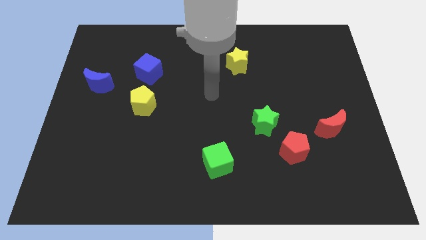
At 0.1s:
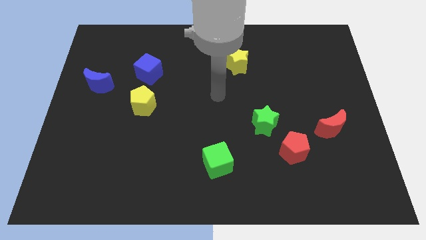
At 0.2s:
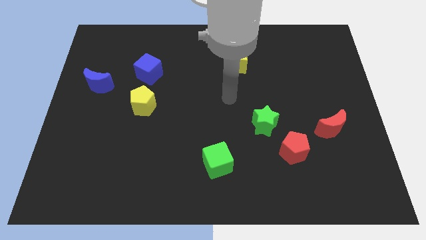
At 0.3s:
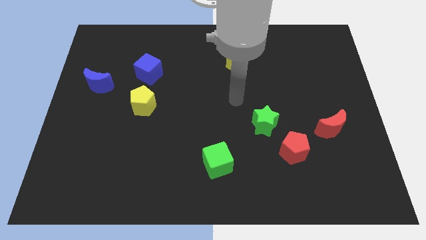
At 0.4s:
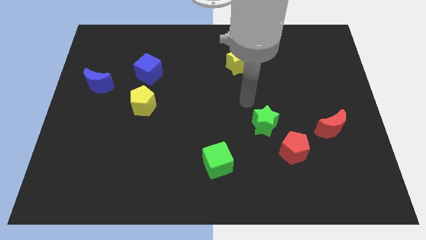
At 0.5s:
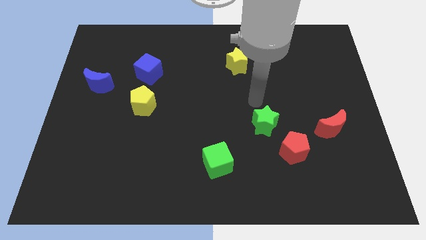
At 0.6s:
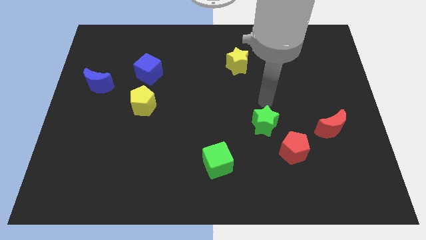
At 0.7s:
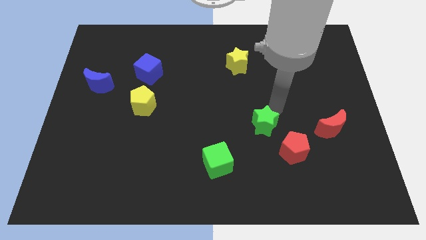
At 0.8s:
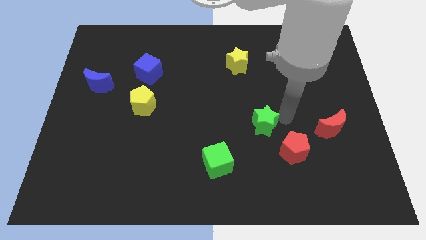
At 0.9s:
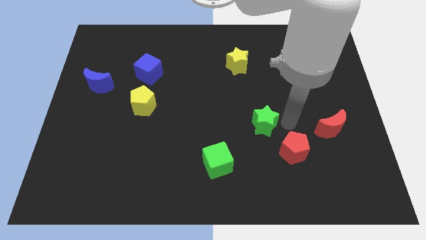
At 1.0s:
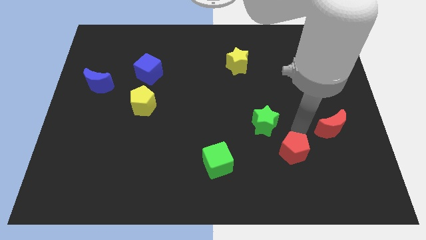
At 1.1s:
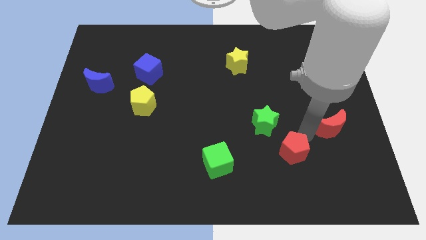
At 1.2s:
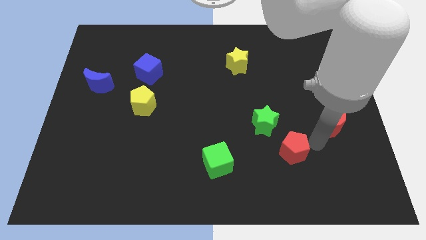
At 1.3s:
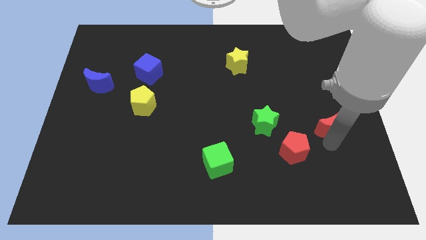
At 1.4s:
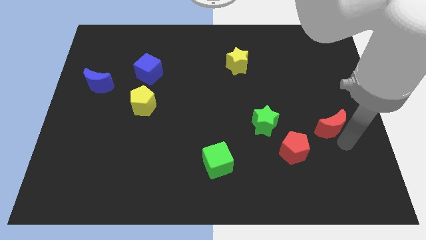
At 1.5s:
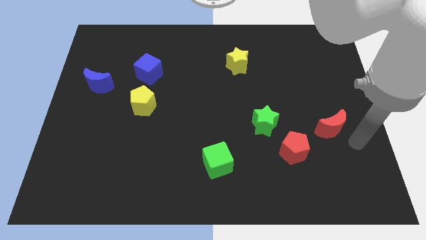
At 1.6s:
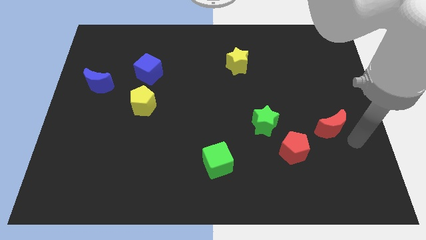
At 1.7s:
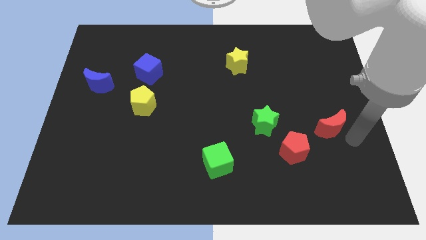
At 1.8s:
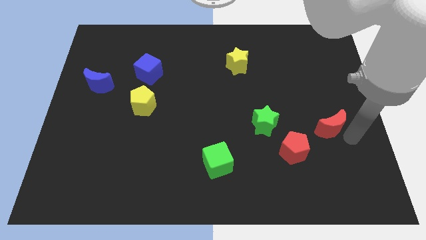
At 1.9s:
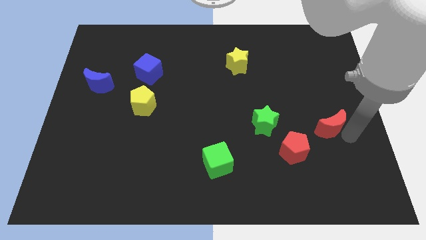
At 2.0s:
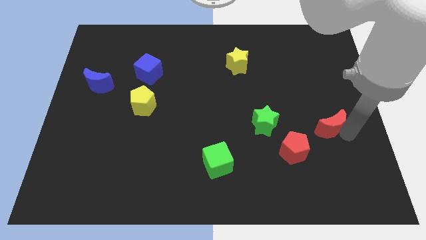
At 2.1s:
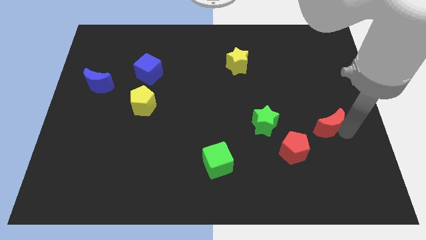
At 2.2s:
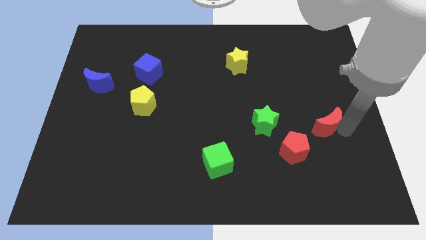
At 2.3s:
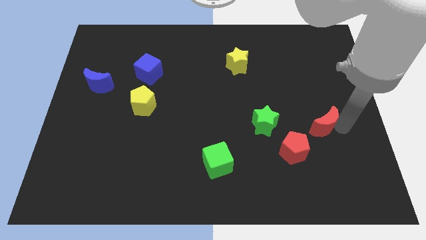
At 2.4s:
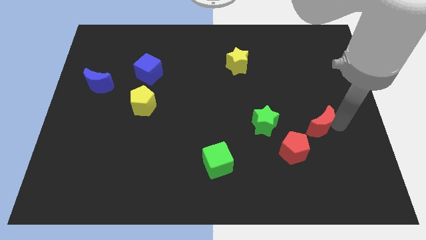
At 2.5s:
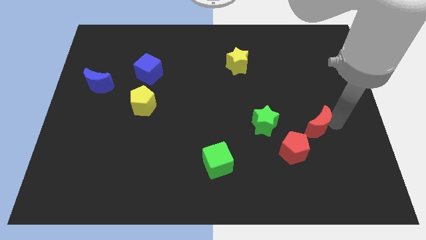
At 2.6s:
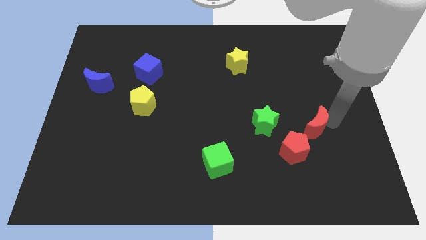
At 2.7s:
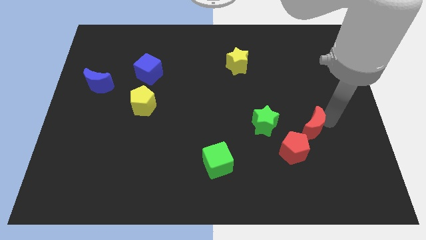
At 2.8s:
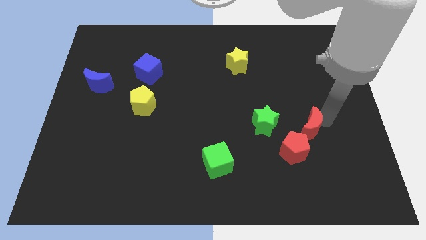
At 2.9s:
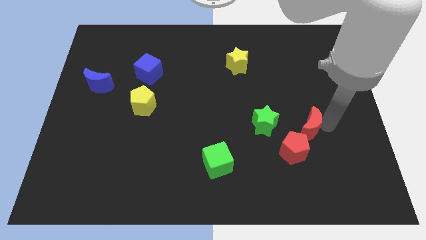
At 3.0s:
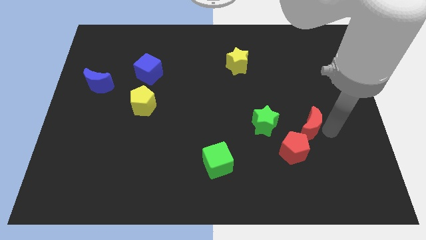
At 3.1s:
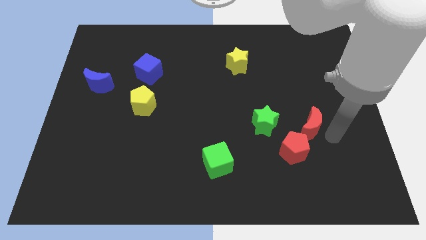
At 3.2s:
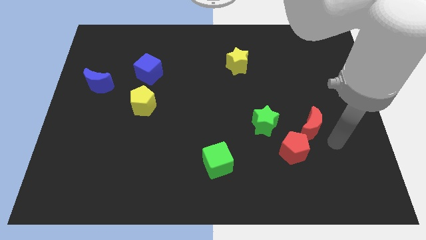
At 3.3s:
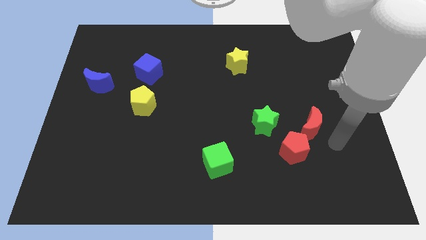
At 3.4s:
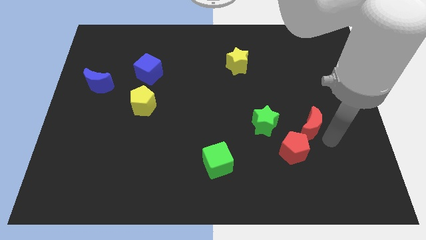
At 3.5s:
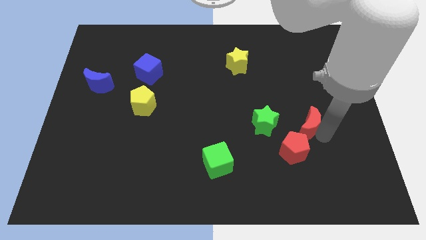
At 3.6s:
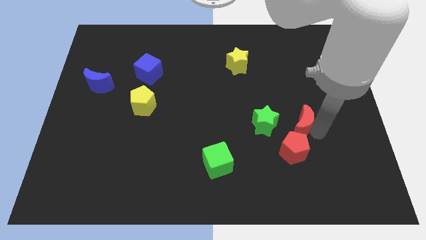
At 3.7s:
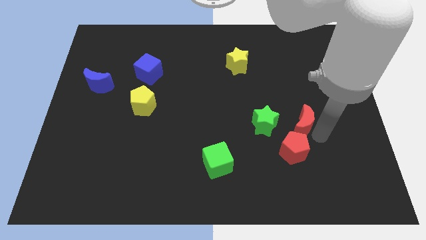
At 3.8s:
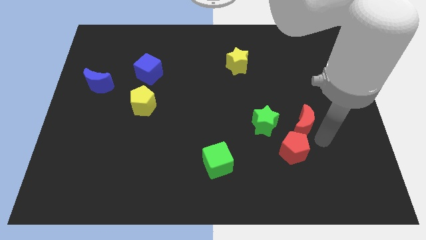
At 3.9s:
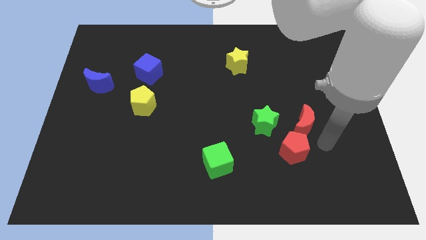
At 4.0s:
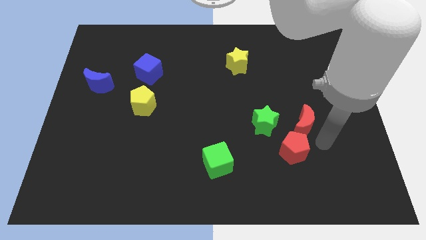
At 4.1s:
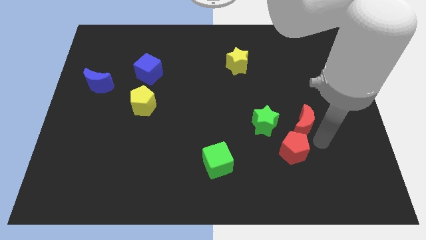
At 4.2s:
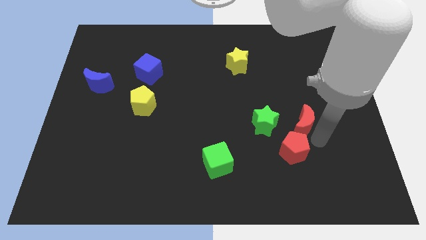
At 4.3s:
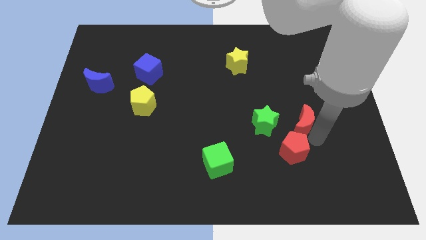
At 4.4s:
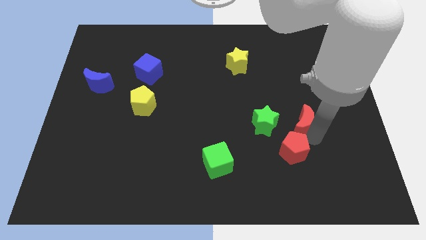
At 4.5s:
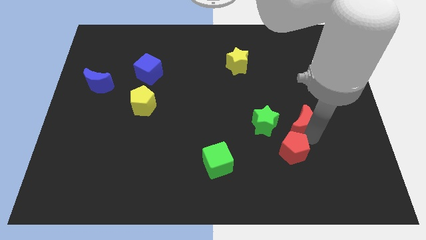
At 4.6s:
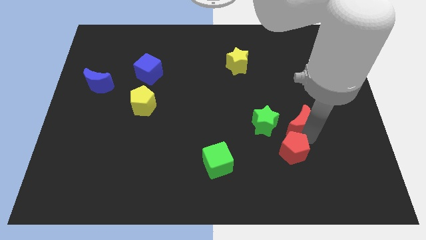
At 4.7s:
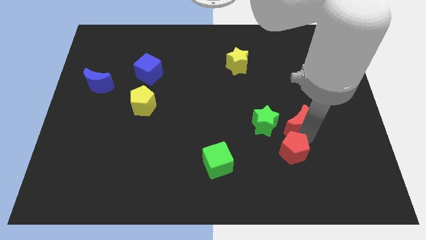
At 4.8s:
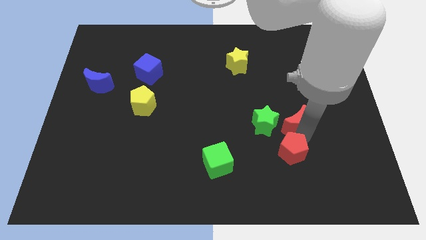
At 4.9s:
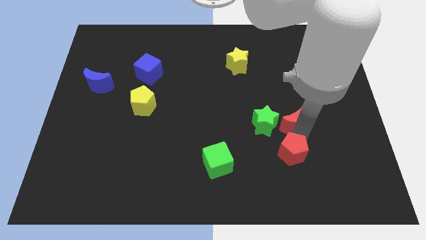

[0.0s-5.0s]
slide the red moon to the top right side of the green star

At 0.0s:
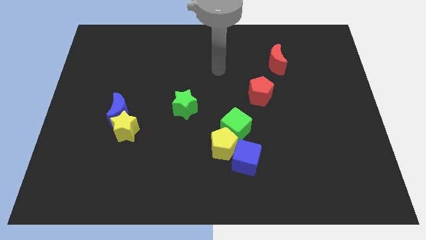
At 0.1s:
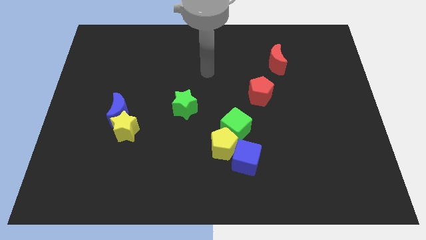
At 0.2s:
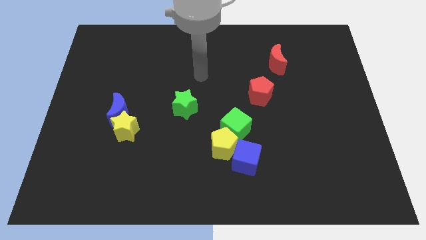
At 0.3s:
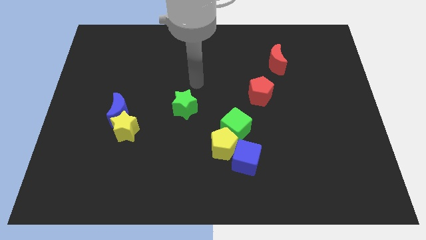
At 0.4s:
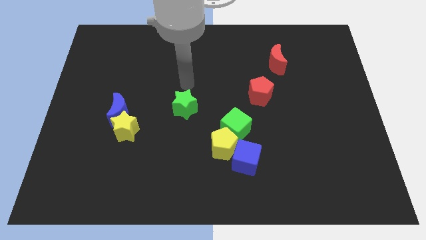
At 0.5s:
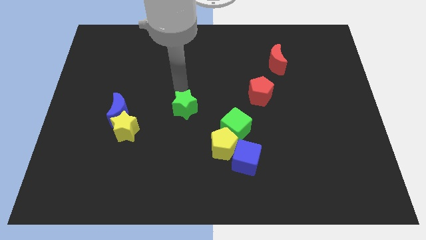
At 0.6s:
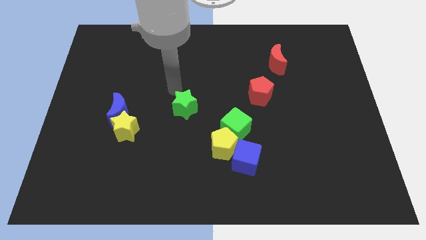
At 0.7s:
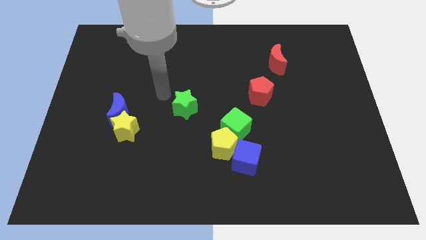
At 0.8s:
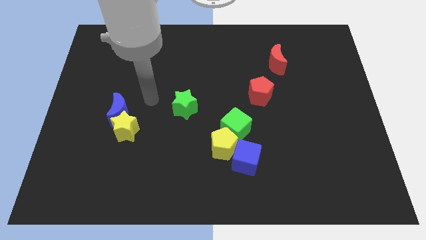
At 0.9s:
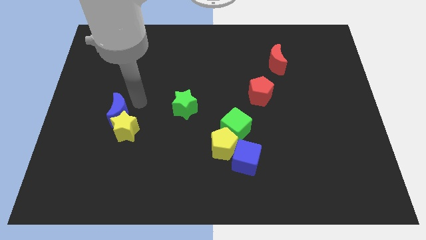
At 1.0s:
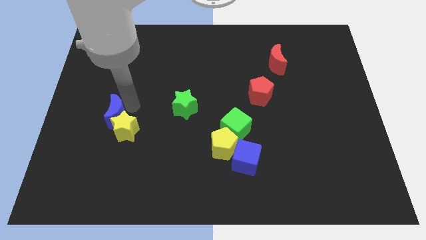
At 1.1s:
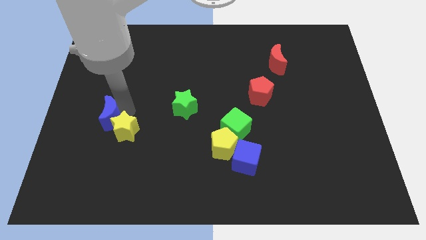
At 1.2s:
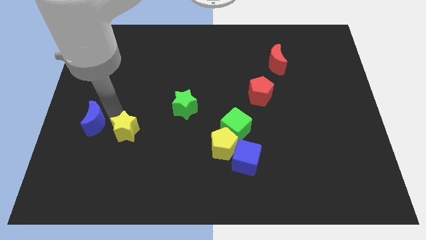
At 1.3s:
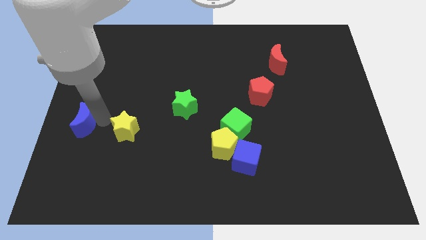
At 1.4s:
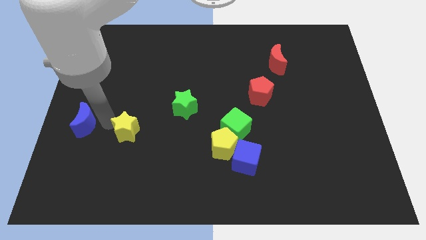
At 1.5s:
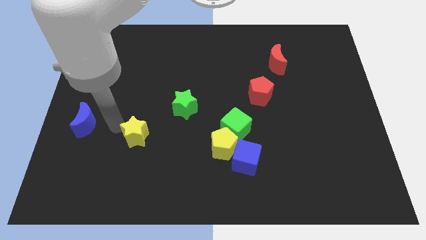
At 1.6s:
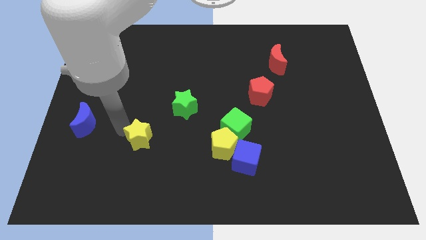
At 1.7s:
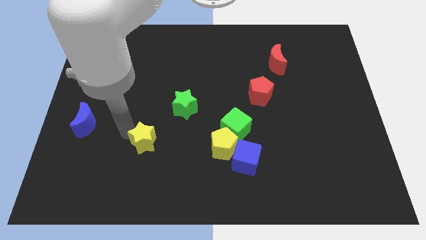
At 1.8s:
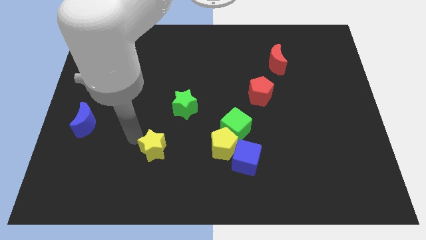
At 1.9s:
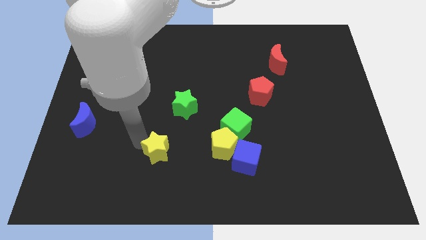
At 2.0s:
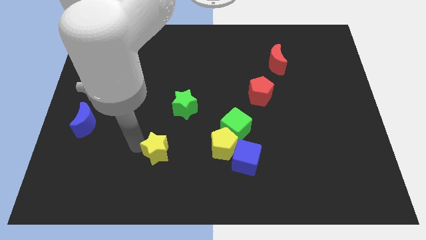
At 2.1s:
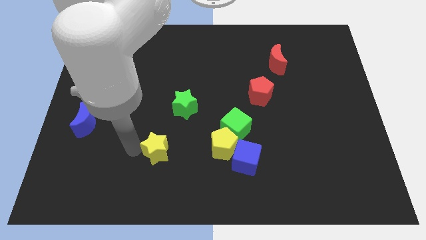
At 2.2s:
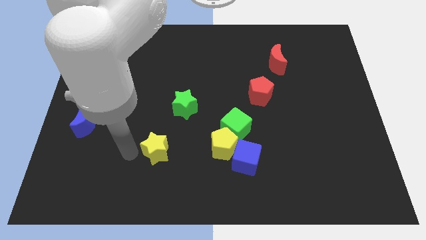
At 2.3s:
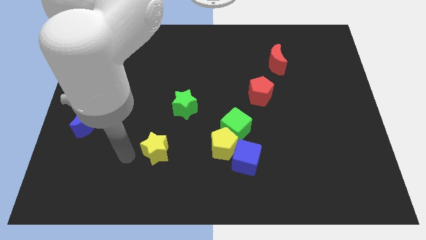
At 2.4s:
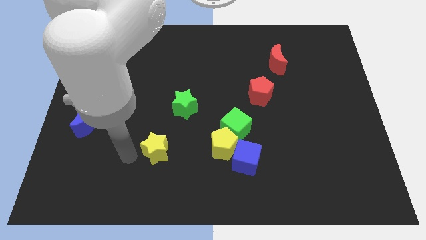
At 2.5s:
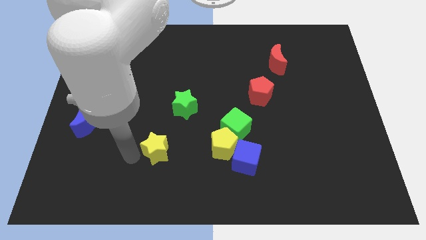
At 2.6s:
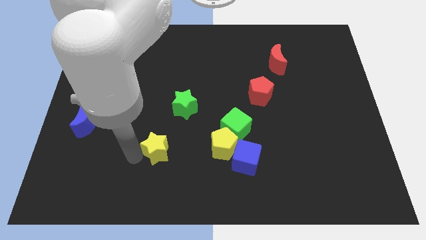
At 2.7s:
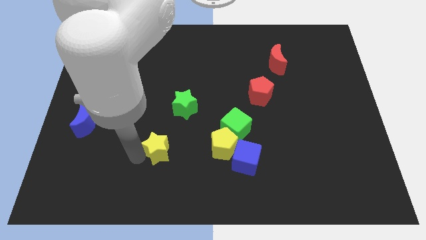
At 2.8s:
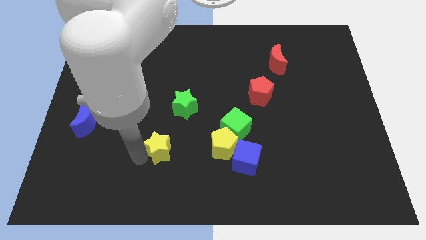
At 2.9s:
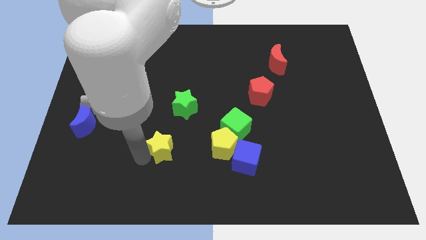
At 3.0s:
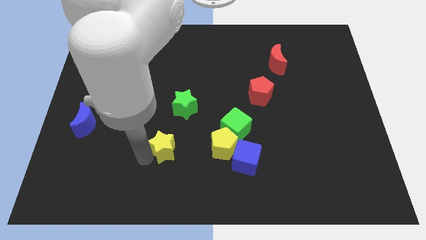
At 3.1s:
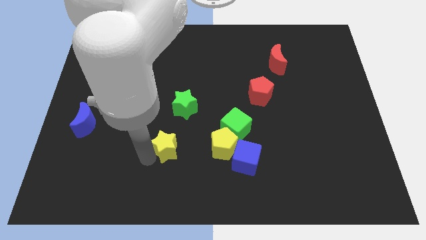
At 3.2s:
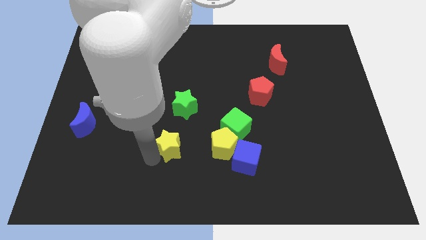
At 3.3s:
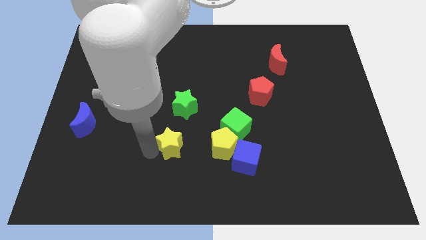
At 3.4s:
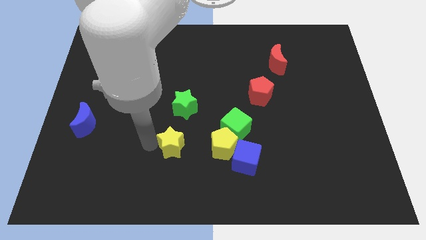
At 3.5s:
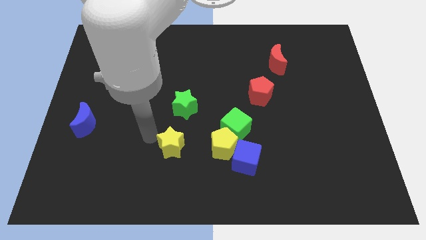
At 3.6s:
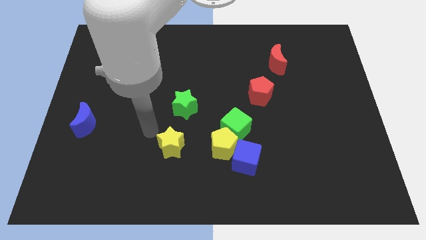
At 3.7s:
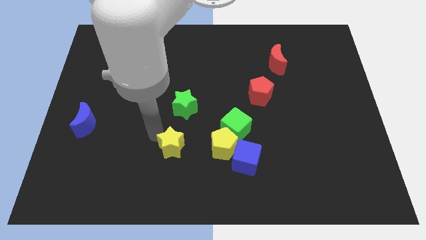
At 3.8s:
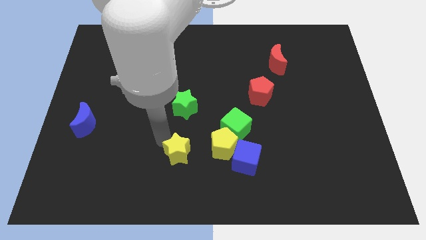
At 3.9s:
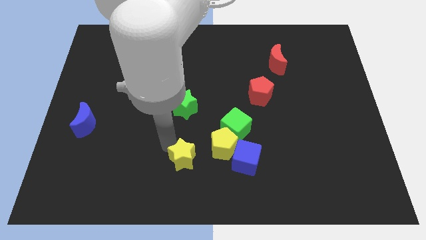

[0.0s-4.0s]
slide the yellow star to the bottom left of the yellow pentagon
